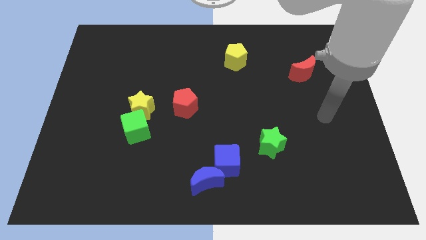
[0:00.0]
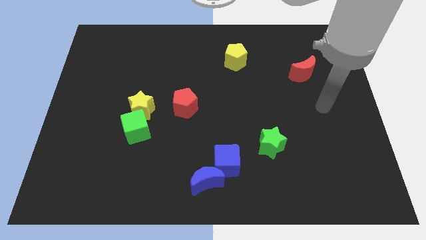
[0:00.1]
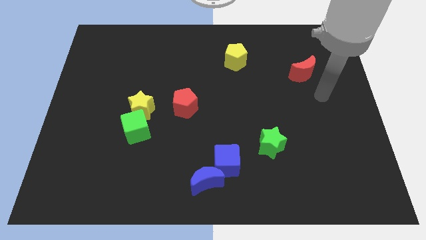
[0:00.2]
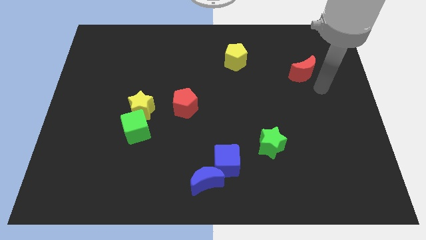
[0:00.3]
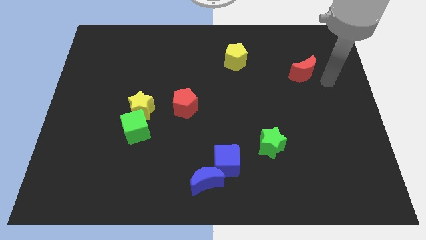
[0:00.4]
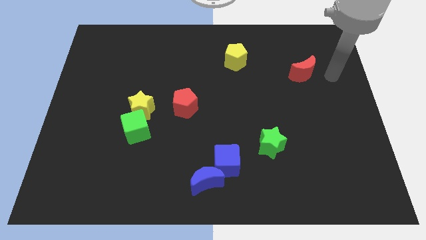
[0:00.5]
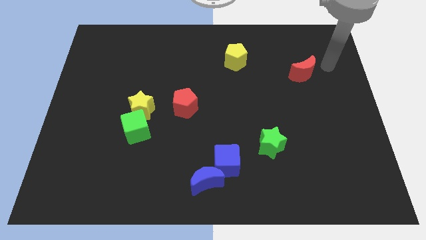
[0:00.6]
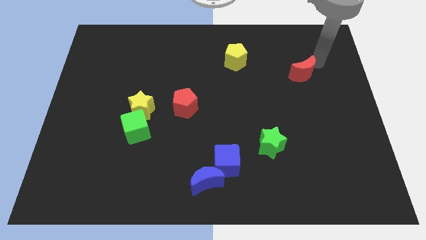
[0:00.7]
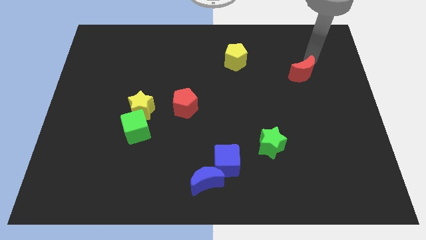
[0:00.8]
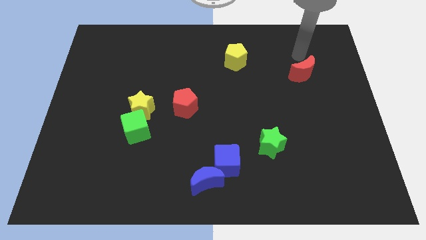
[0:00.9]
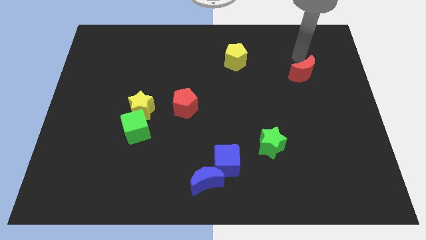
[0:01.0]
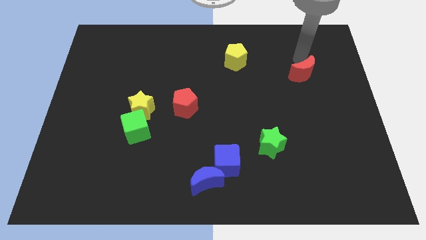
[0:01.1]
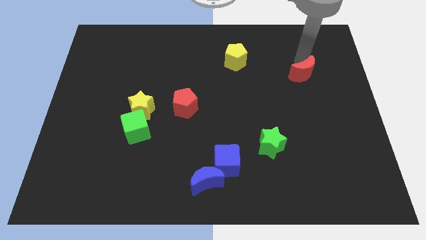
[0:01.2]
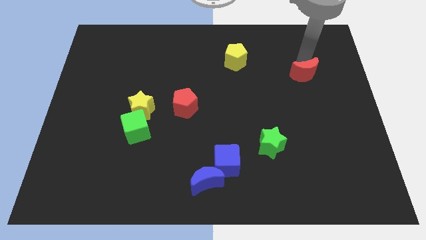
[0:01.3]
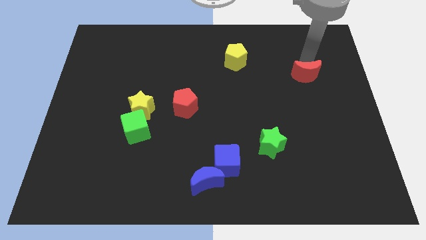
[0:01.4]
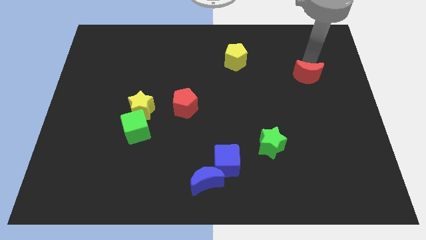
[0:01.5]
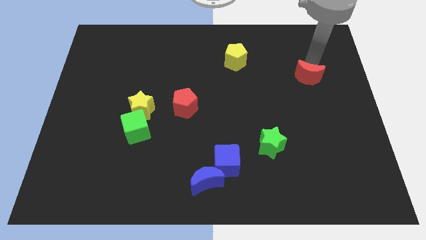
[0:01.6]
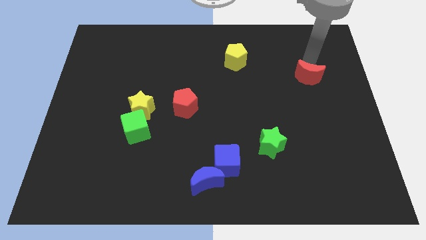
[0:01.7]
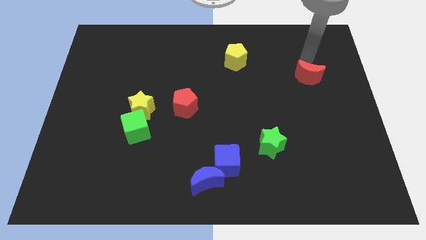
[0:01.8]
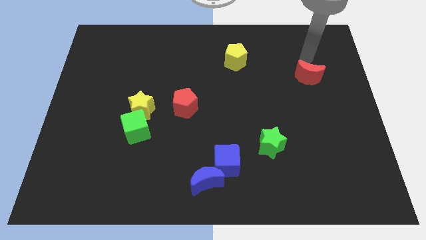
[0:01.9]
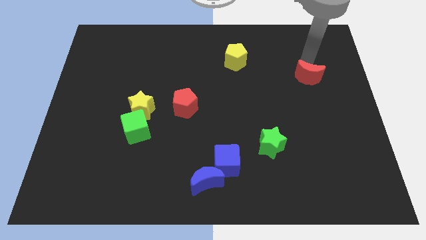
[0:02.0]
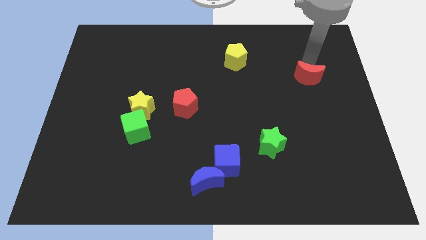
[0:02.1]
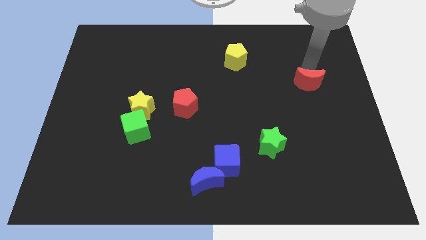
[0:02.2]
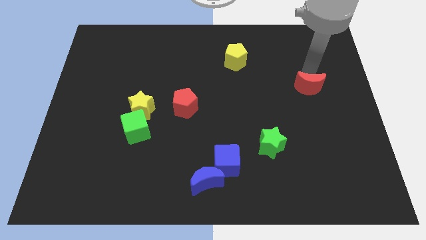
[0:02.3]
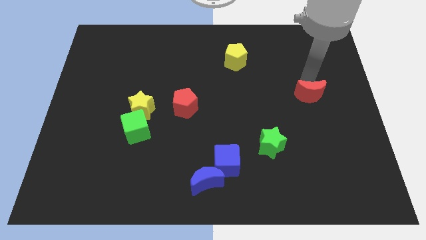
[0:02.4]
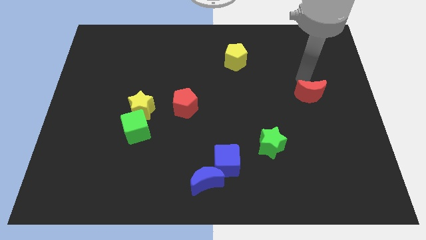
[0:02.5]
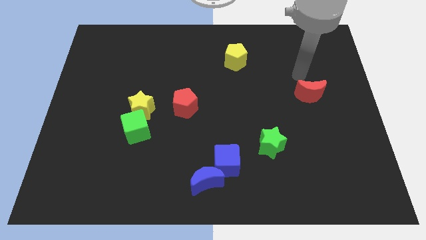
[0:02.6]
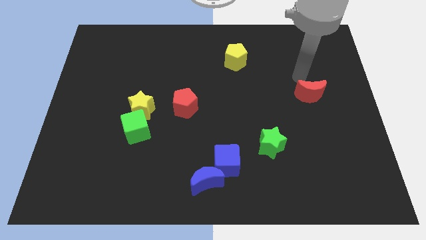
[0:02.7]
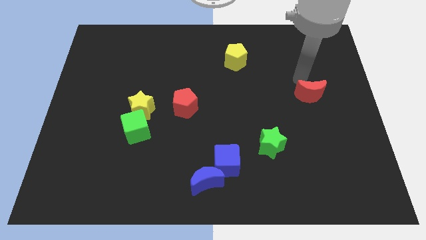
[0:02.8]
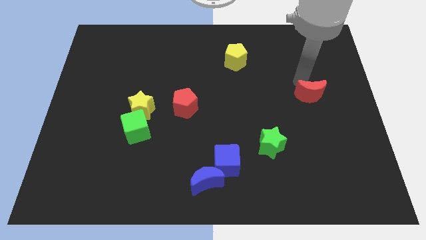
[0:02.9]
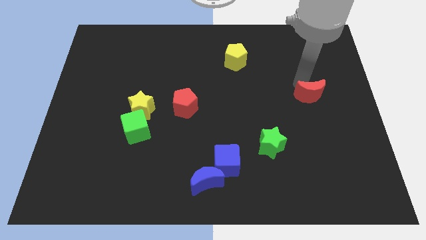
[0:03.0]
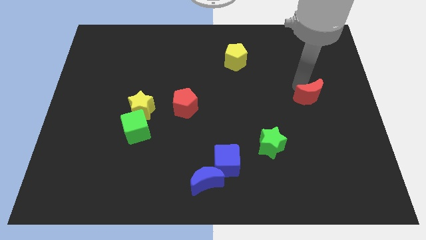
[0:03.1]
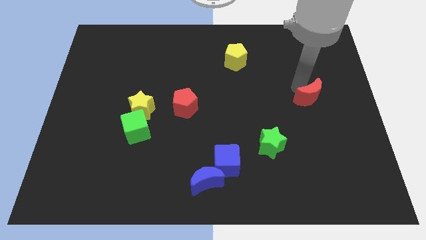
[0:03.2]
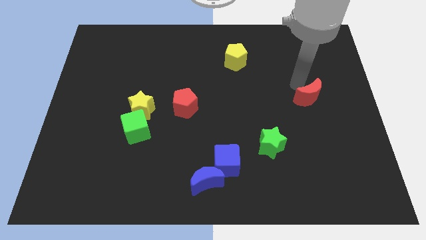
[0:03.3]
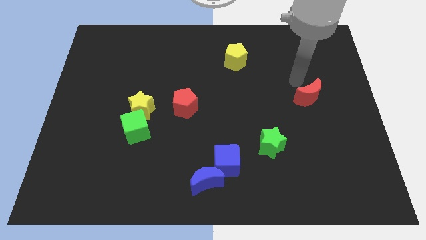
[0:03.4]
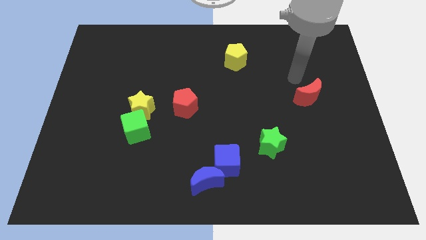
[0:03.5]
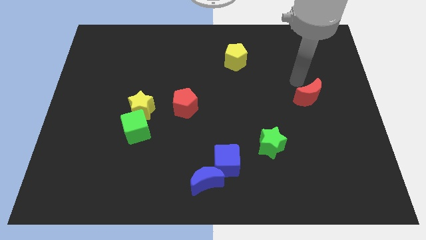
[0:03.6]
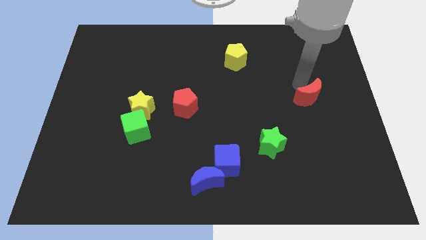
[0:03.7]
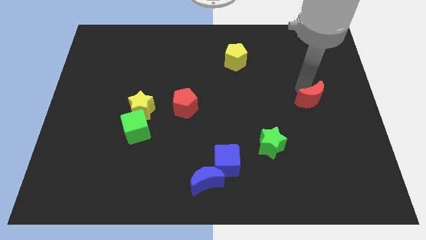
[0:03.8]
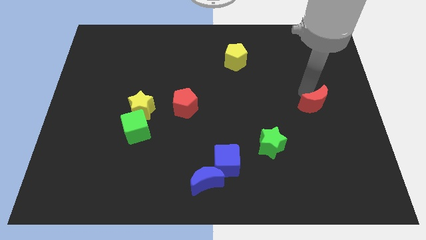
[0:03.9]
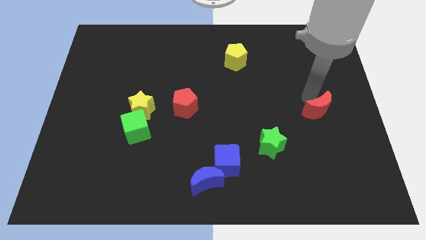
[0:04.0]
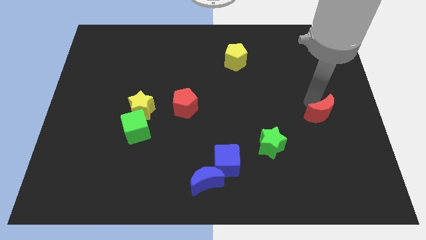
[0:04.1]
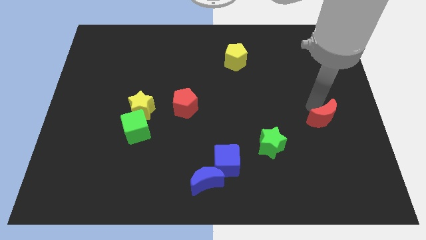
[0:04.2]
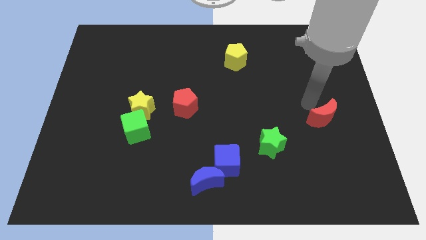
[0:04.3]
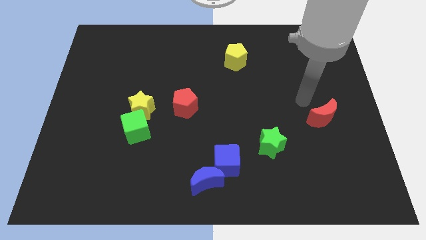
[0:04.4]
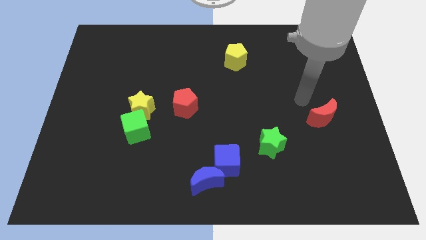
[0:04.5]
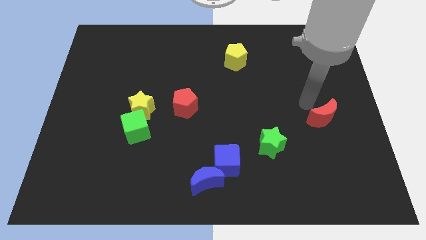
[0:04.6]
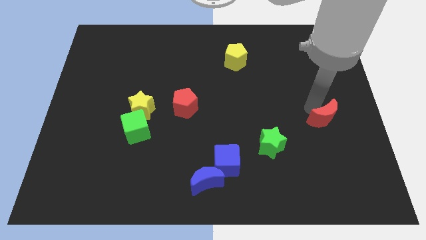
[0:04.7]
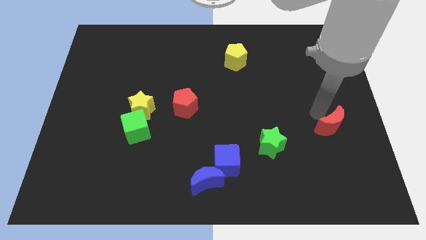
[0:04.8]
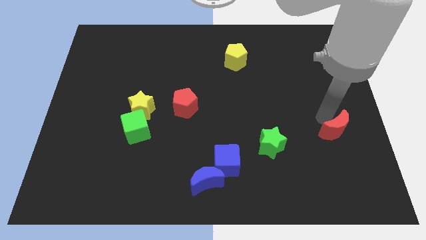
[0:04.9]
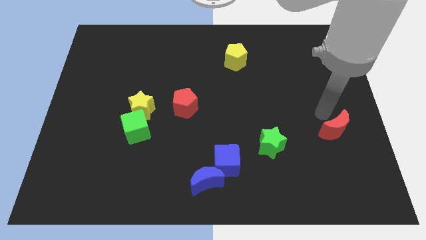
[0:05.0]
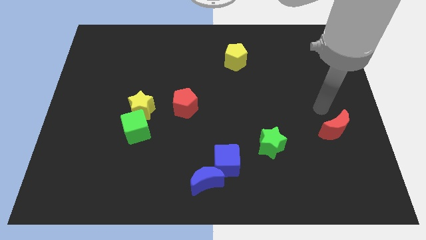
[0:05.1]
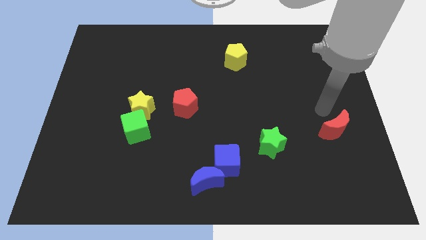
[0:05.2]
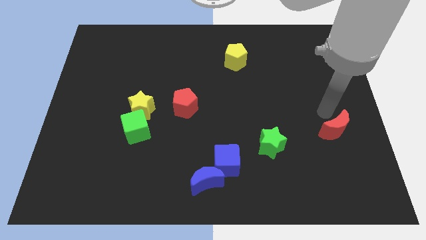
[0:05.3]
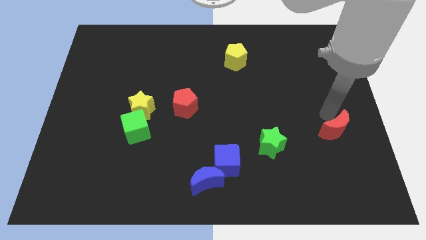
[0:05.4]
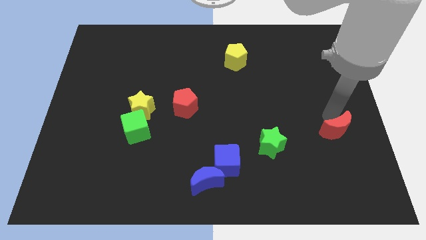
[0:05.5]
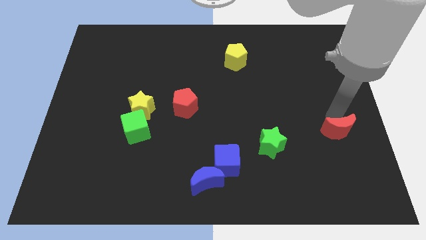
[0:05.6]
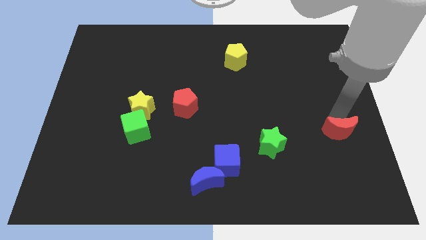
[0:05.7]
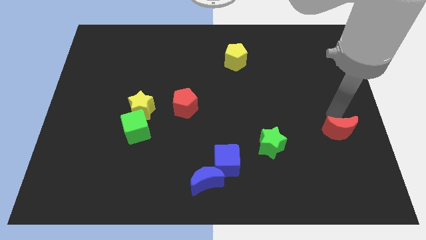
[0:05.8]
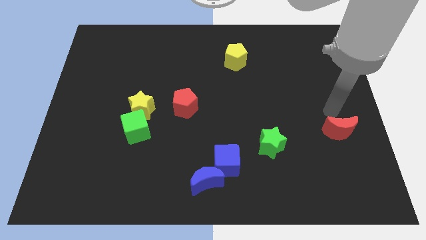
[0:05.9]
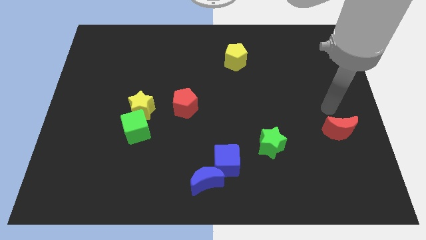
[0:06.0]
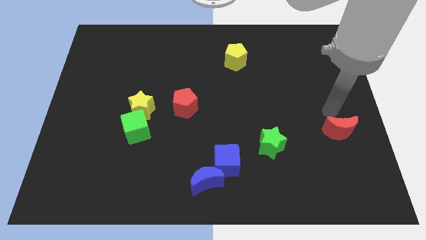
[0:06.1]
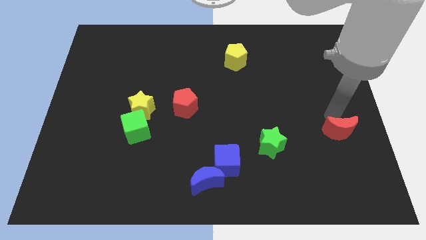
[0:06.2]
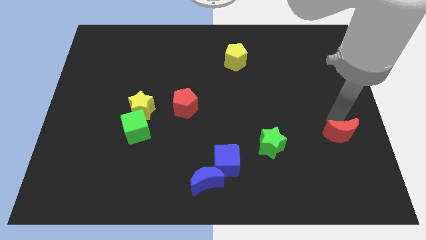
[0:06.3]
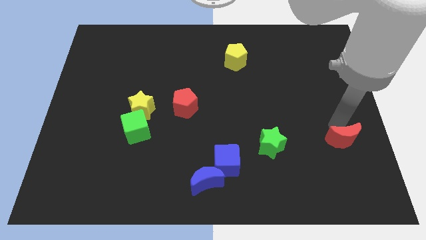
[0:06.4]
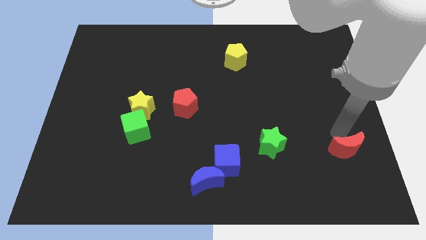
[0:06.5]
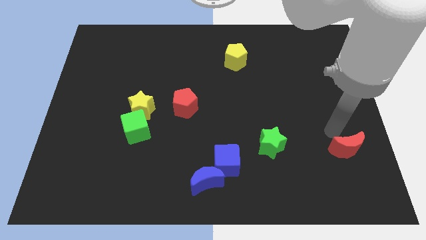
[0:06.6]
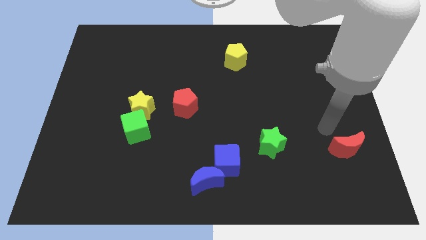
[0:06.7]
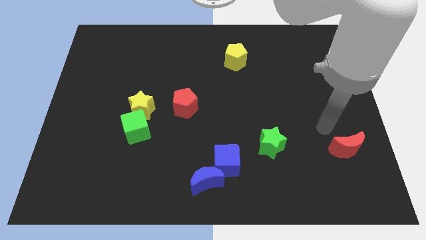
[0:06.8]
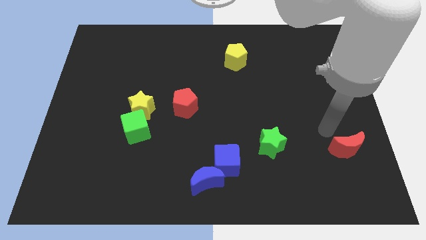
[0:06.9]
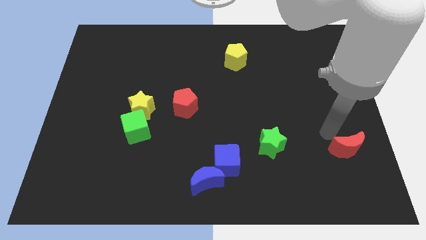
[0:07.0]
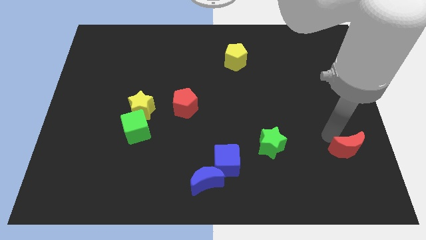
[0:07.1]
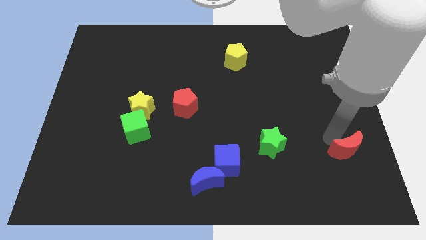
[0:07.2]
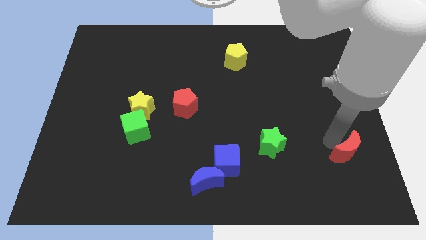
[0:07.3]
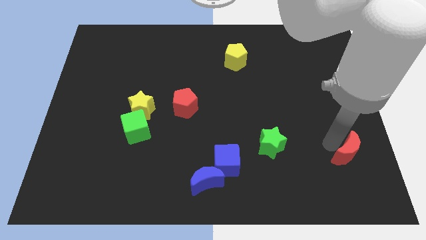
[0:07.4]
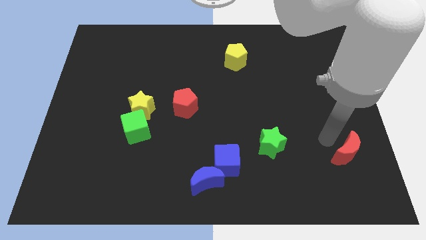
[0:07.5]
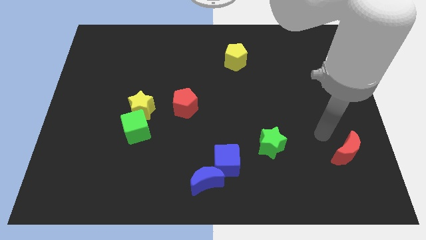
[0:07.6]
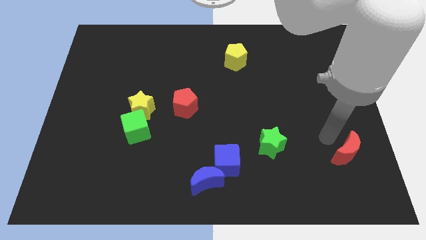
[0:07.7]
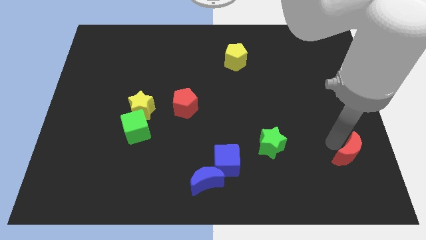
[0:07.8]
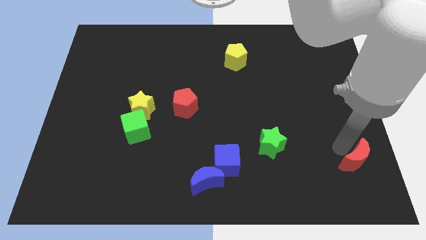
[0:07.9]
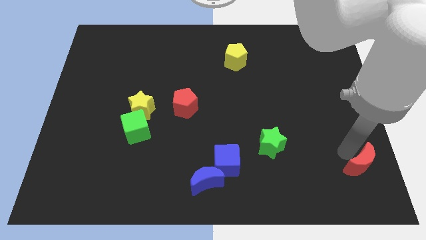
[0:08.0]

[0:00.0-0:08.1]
push the red moon to the lower right corner
